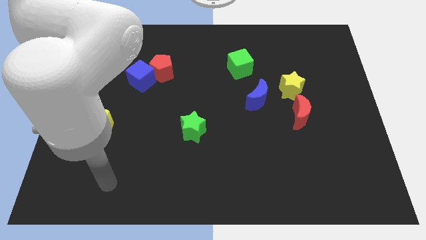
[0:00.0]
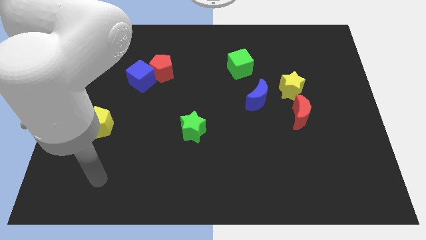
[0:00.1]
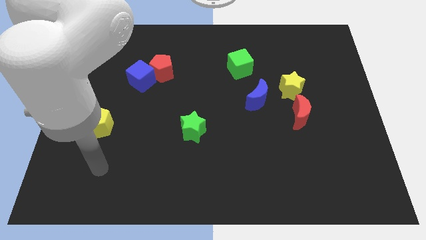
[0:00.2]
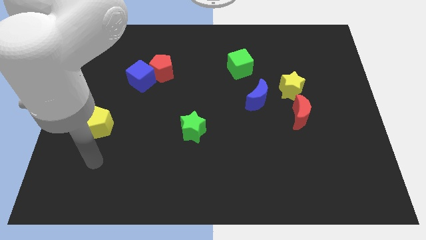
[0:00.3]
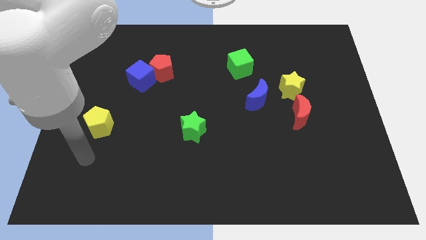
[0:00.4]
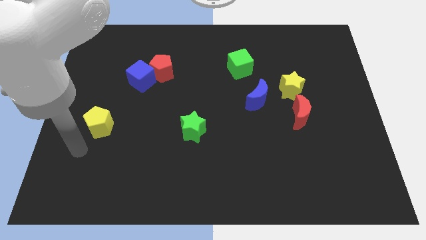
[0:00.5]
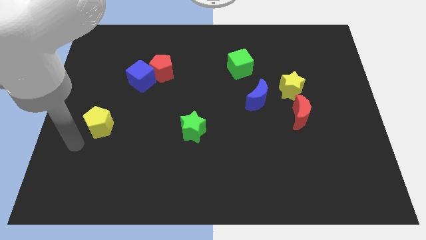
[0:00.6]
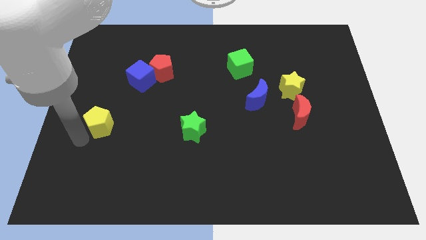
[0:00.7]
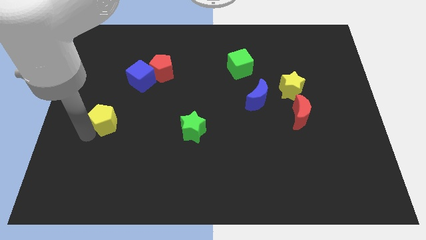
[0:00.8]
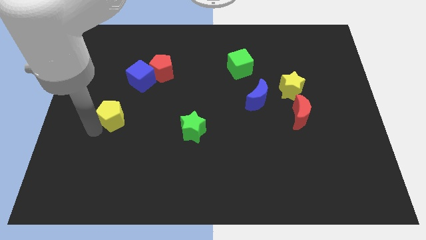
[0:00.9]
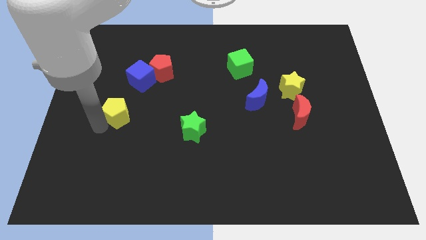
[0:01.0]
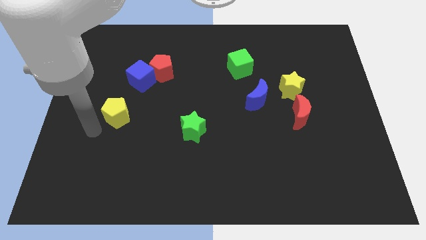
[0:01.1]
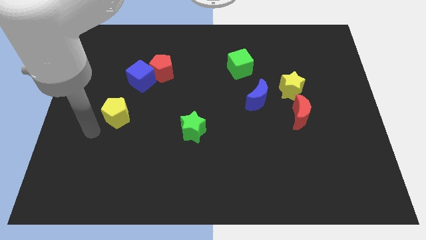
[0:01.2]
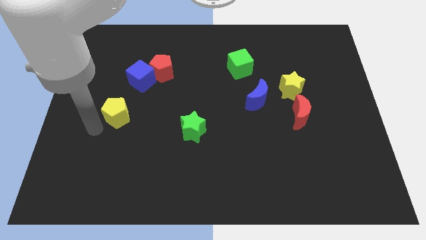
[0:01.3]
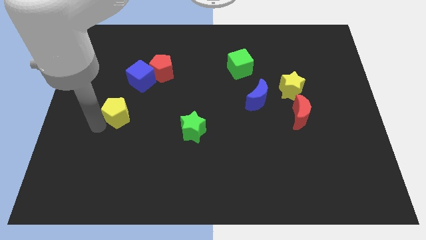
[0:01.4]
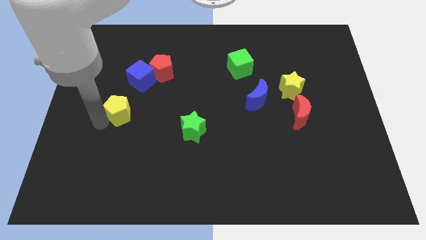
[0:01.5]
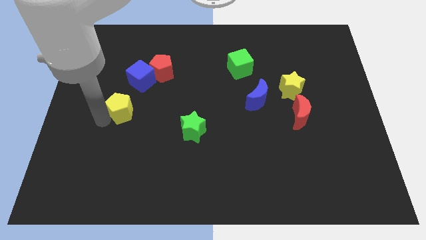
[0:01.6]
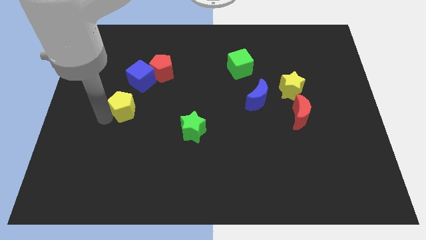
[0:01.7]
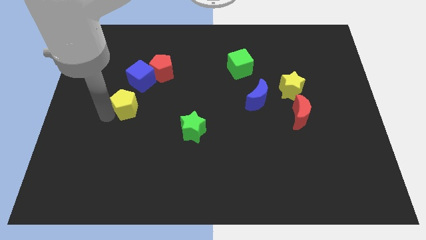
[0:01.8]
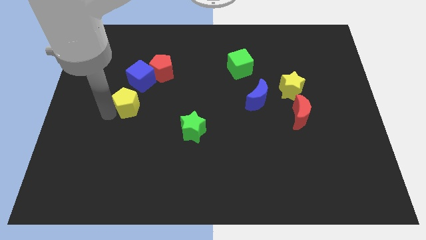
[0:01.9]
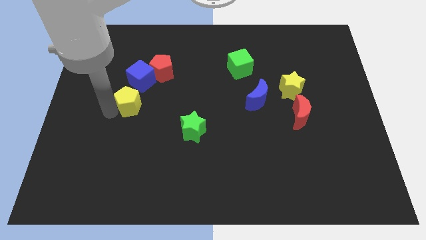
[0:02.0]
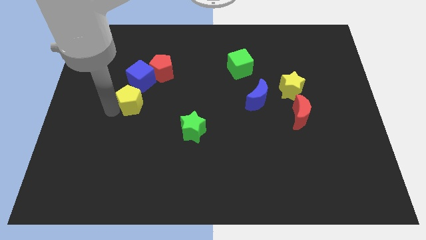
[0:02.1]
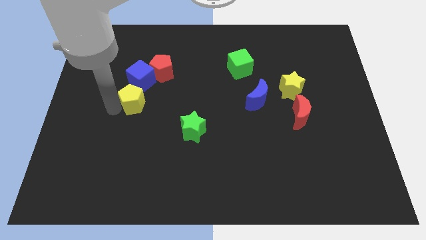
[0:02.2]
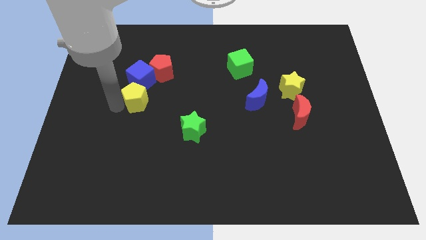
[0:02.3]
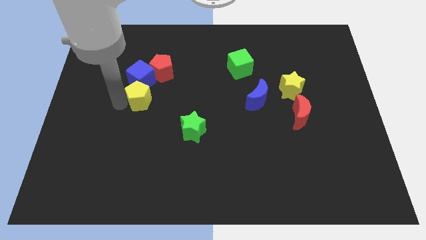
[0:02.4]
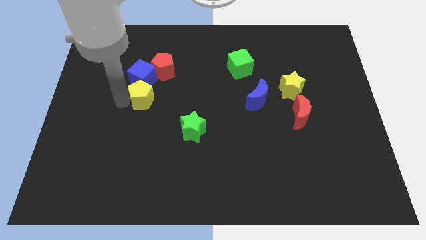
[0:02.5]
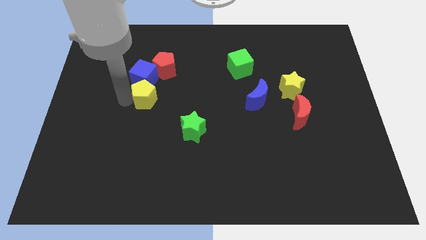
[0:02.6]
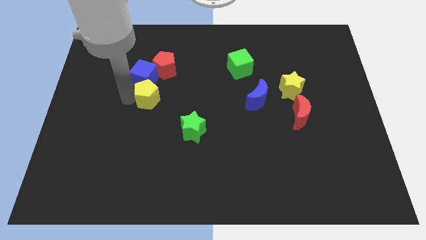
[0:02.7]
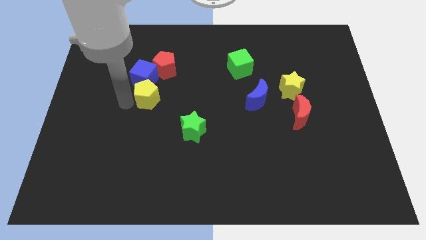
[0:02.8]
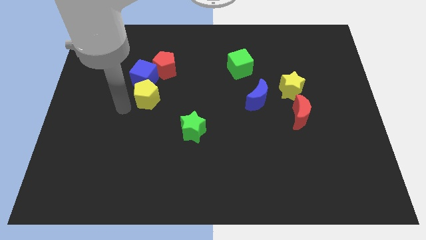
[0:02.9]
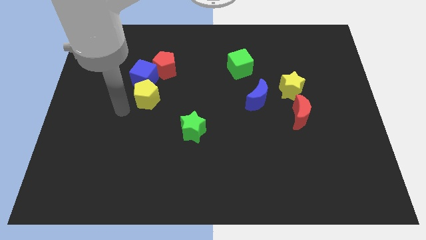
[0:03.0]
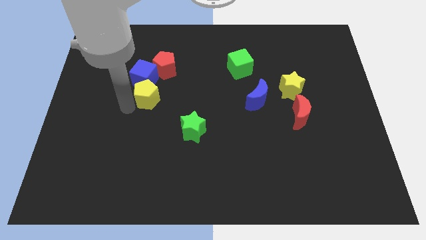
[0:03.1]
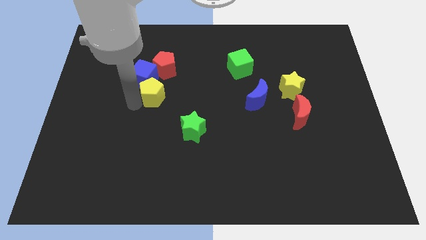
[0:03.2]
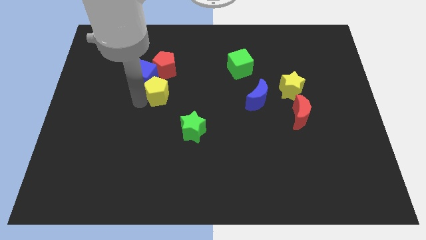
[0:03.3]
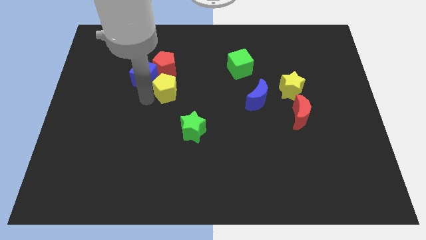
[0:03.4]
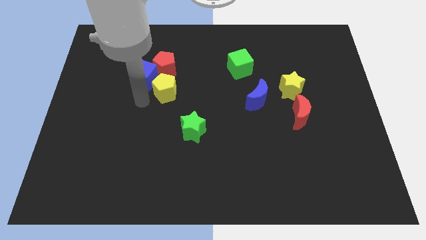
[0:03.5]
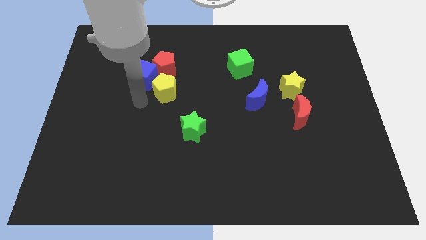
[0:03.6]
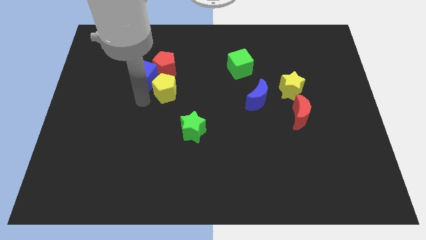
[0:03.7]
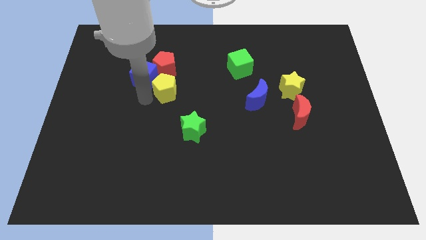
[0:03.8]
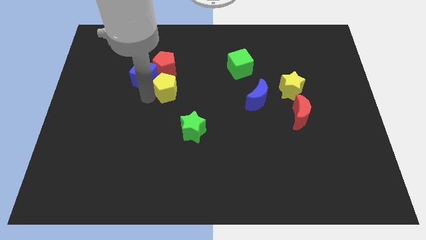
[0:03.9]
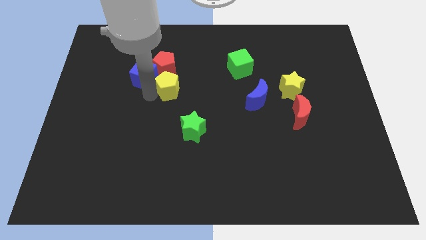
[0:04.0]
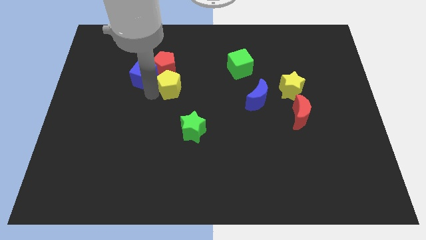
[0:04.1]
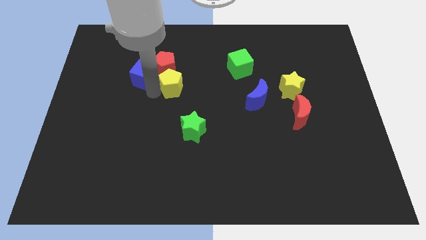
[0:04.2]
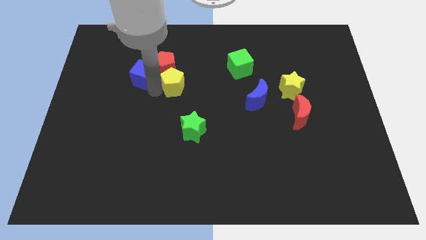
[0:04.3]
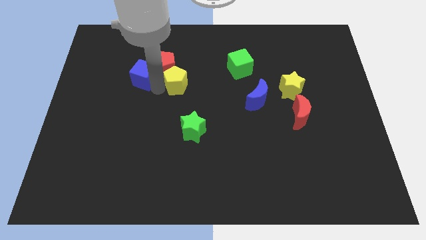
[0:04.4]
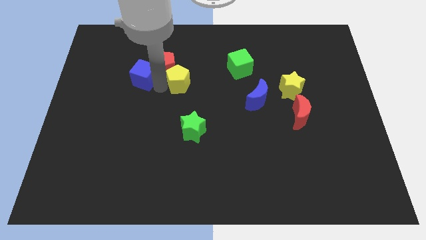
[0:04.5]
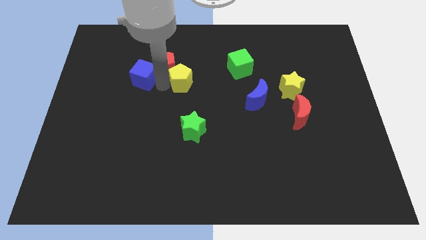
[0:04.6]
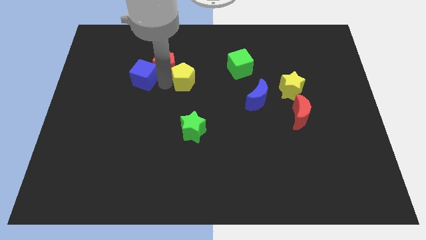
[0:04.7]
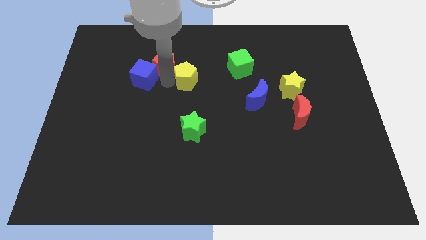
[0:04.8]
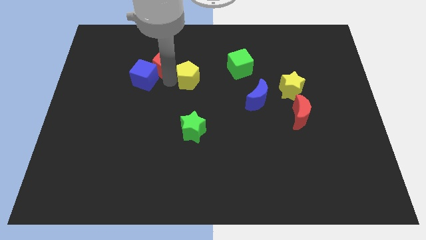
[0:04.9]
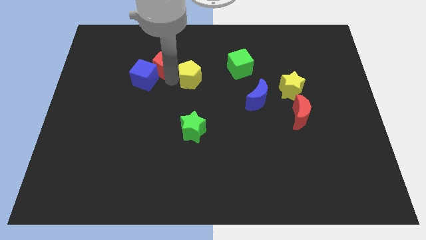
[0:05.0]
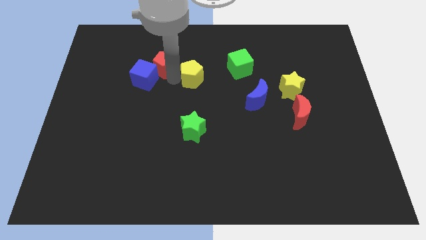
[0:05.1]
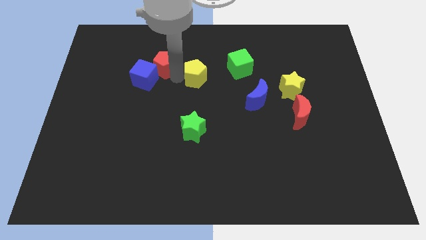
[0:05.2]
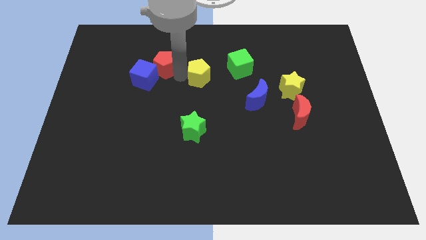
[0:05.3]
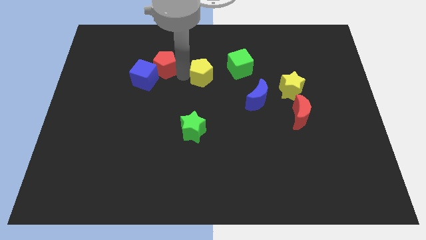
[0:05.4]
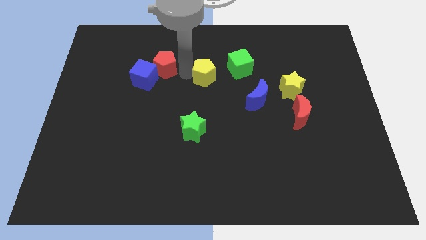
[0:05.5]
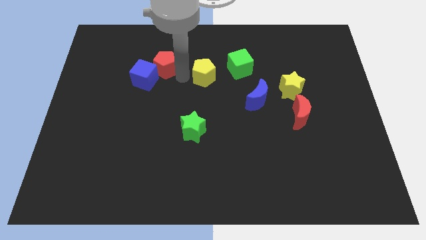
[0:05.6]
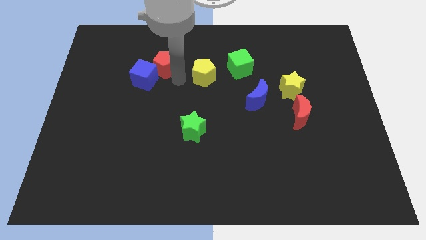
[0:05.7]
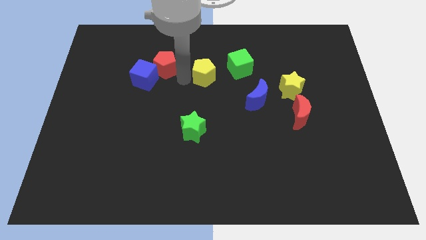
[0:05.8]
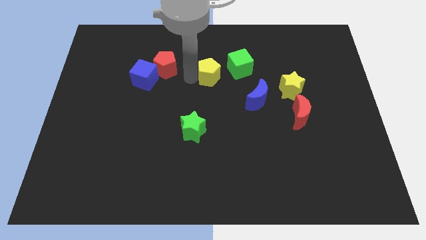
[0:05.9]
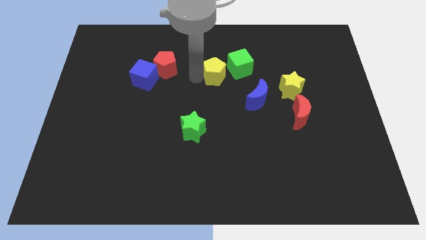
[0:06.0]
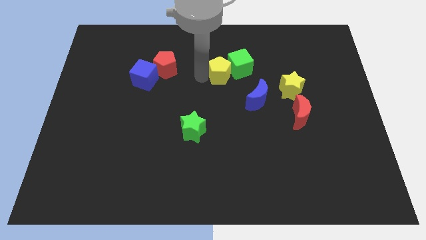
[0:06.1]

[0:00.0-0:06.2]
move the yellow pentagon close to the green cube

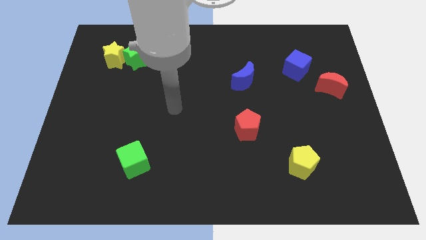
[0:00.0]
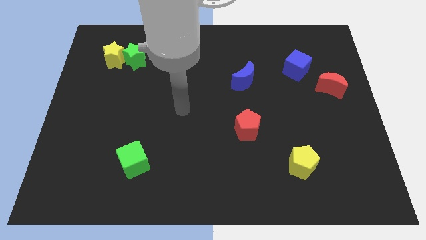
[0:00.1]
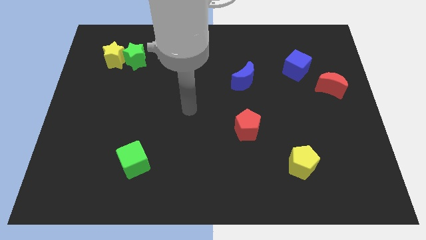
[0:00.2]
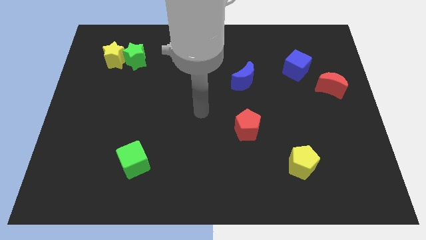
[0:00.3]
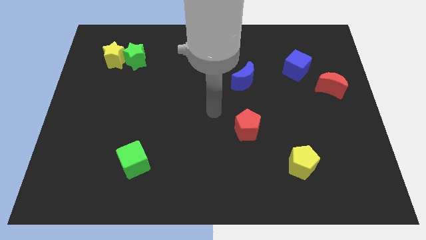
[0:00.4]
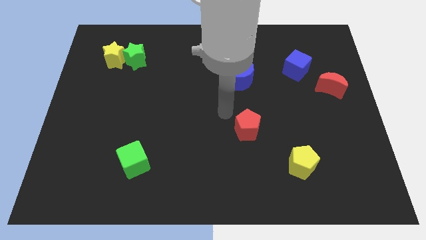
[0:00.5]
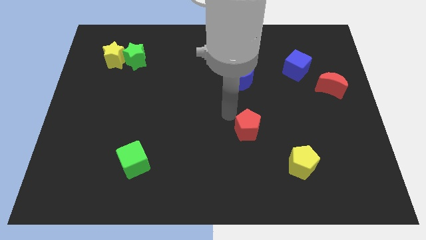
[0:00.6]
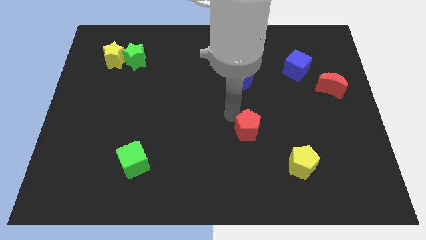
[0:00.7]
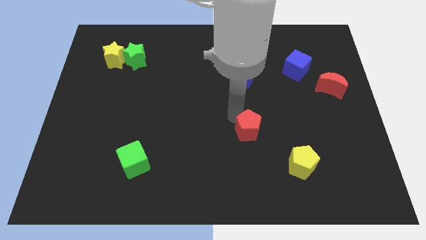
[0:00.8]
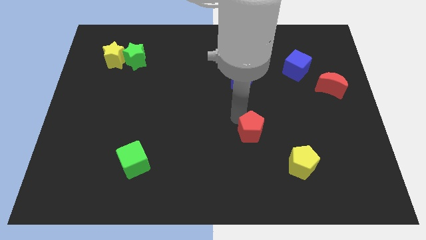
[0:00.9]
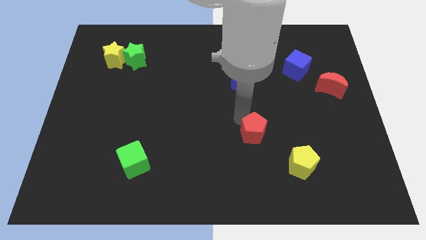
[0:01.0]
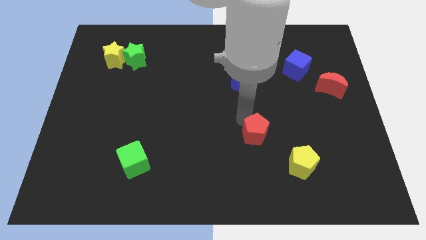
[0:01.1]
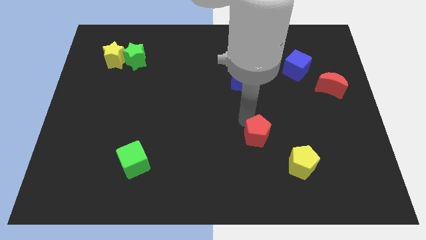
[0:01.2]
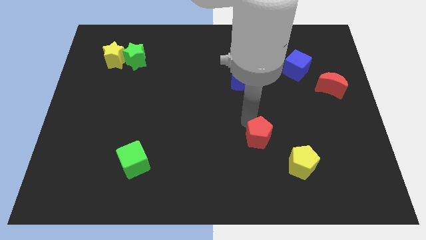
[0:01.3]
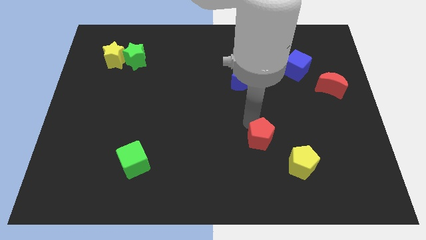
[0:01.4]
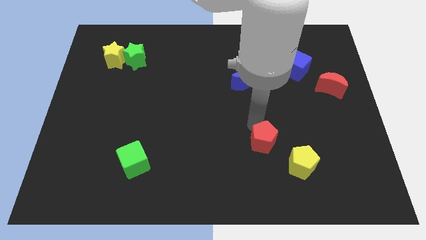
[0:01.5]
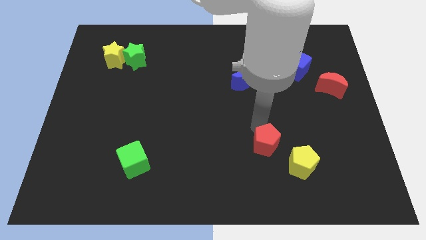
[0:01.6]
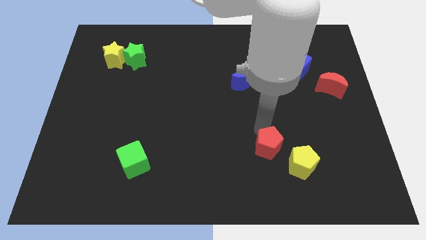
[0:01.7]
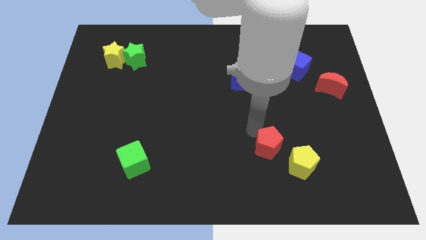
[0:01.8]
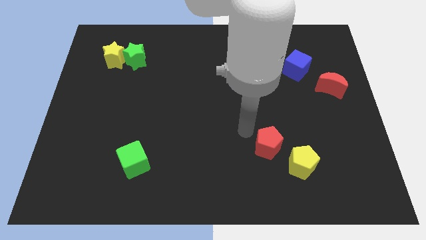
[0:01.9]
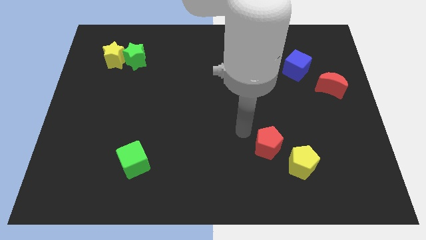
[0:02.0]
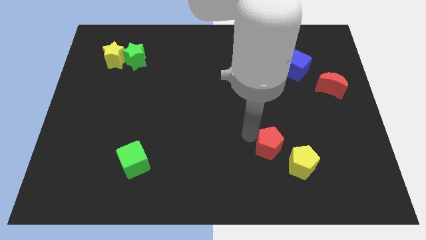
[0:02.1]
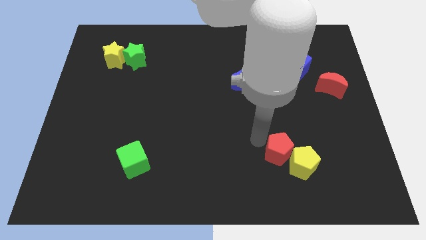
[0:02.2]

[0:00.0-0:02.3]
slide the red pentagon towards the yellow pentagon
